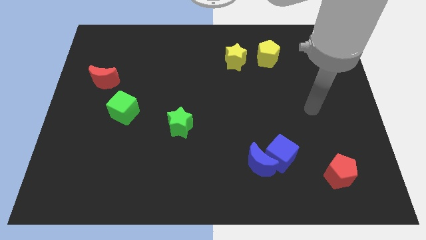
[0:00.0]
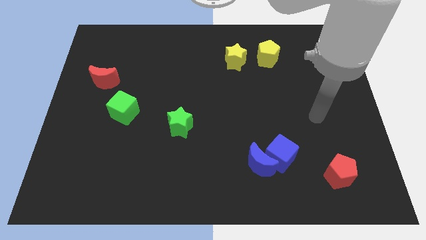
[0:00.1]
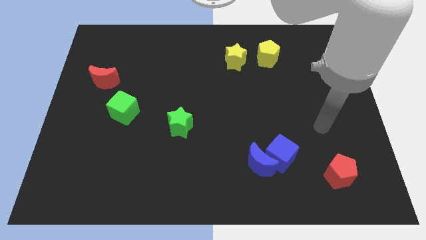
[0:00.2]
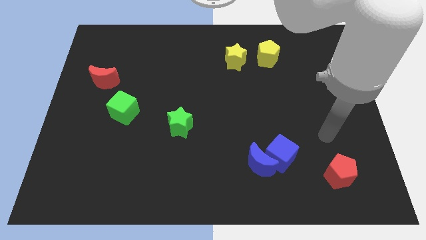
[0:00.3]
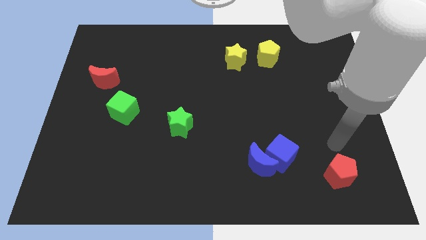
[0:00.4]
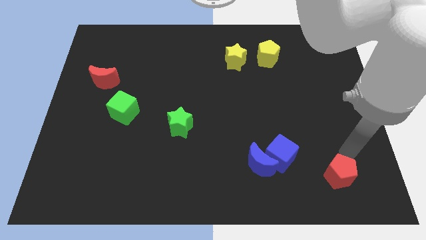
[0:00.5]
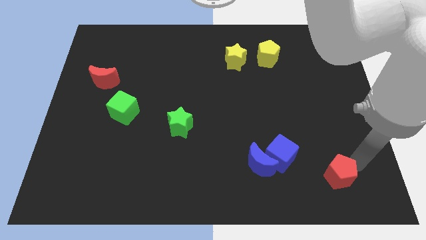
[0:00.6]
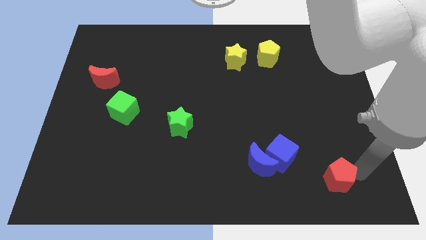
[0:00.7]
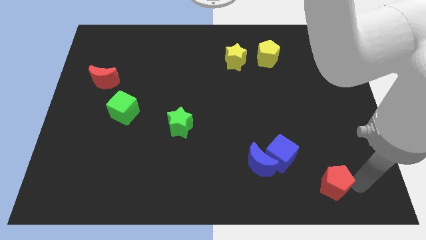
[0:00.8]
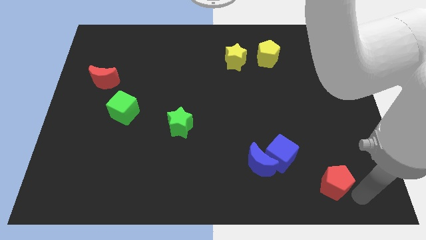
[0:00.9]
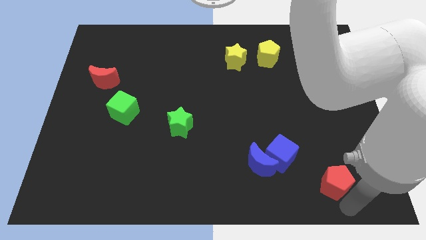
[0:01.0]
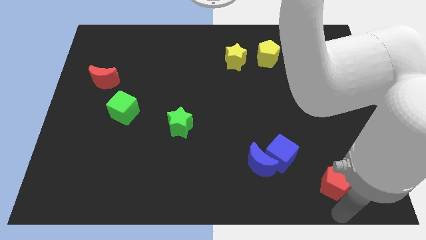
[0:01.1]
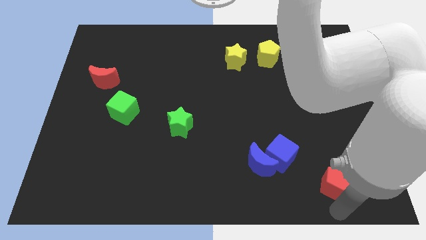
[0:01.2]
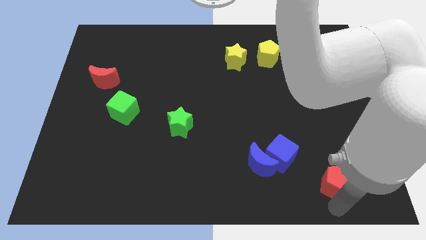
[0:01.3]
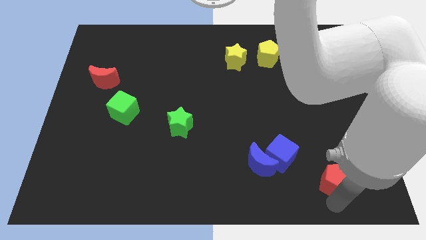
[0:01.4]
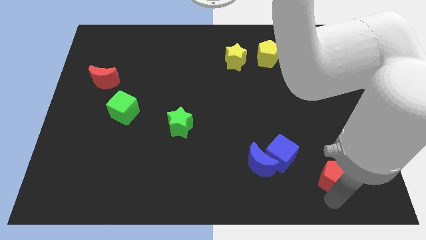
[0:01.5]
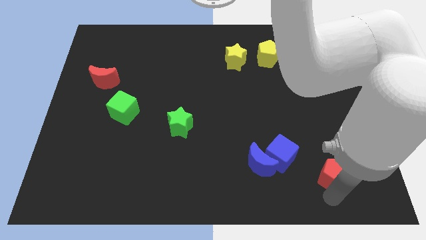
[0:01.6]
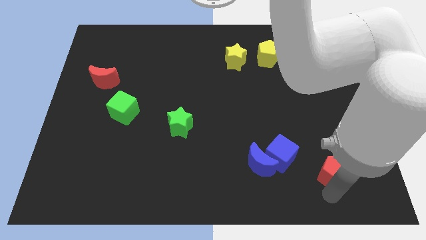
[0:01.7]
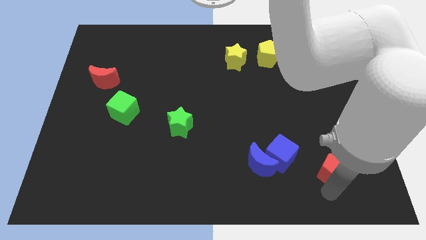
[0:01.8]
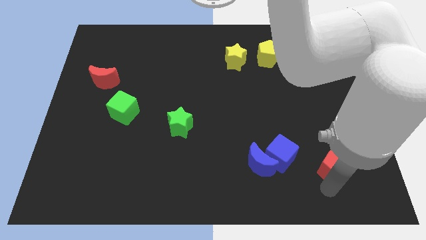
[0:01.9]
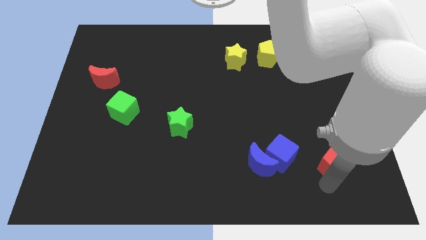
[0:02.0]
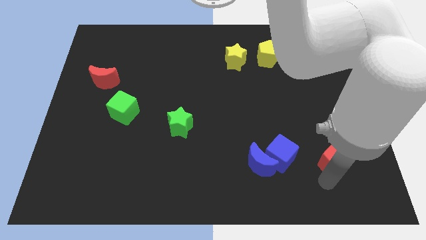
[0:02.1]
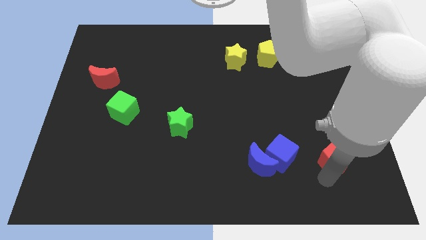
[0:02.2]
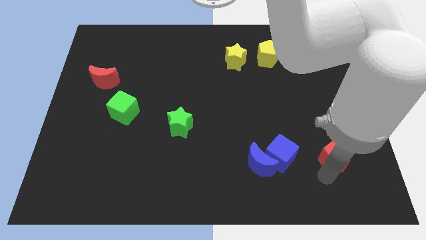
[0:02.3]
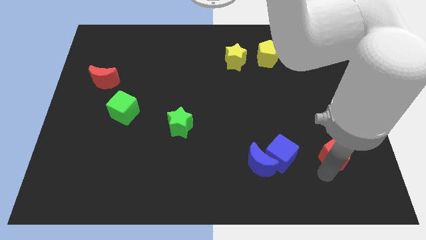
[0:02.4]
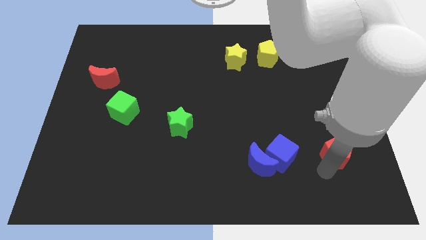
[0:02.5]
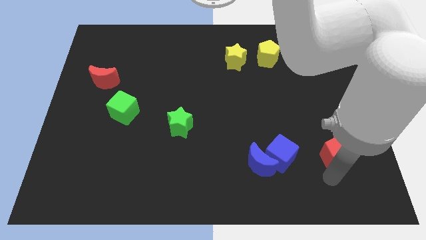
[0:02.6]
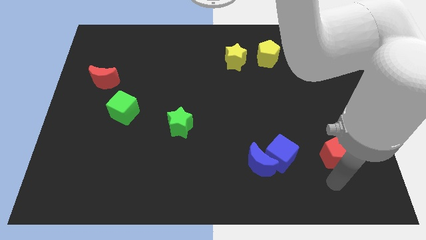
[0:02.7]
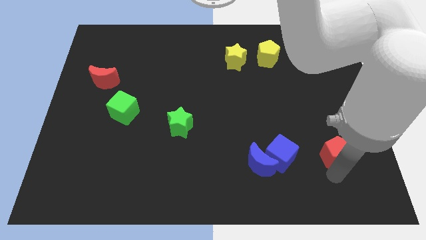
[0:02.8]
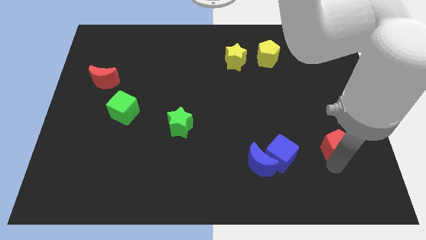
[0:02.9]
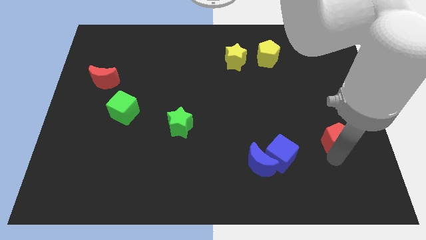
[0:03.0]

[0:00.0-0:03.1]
slightly move the red pentagon upwards

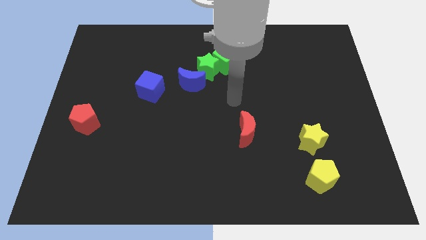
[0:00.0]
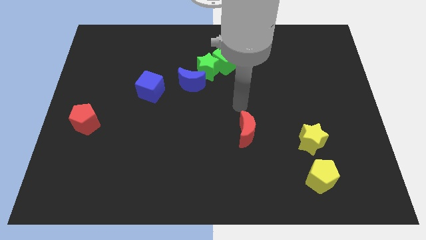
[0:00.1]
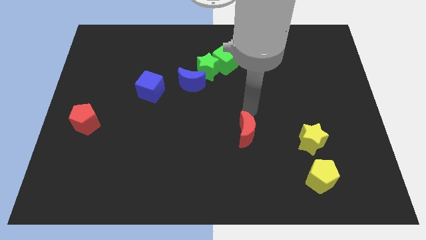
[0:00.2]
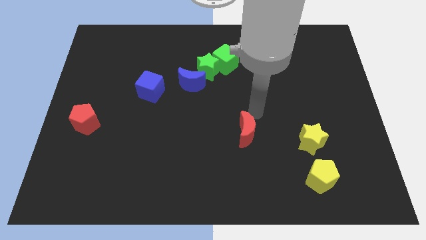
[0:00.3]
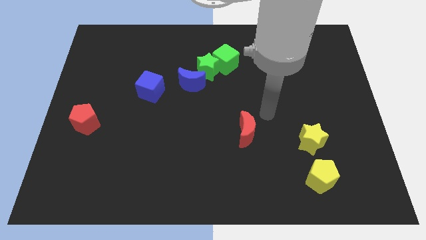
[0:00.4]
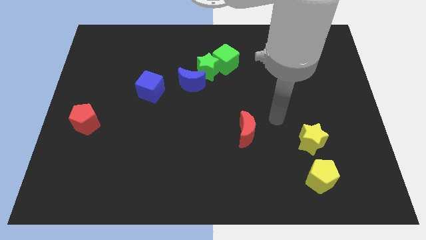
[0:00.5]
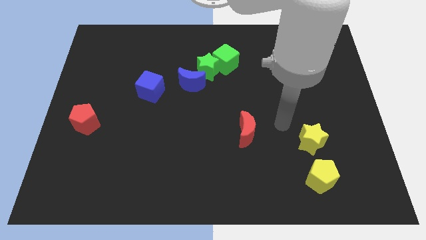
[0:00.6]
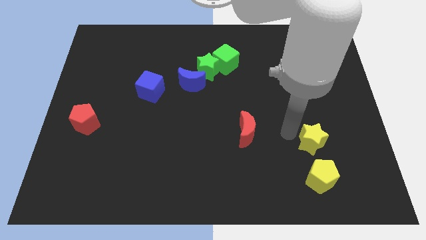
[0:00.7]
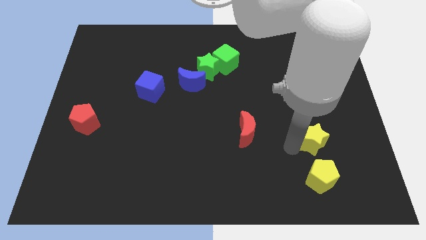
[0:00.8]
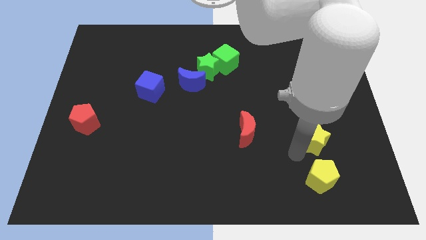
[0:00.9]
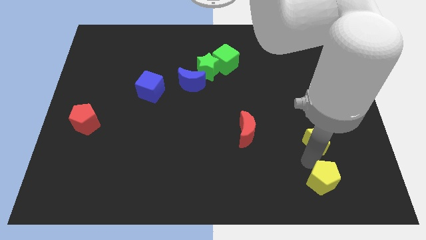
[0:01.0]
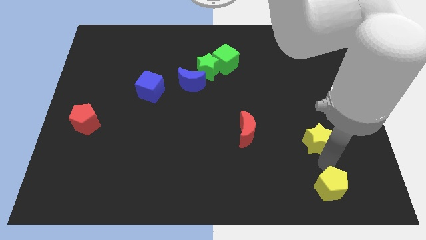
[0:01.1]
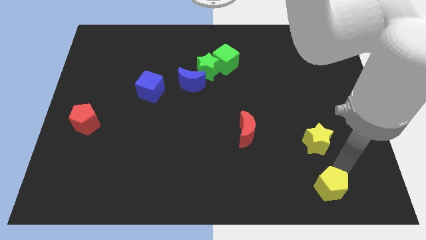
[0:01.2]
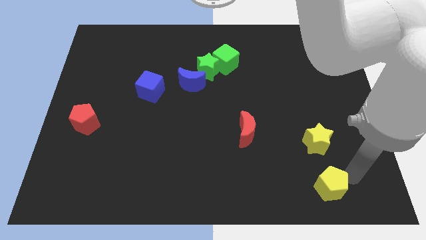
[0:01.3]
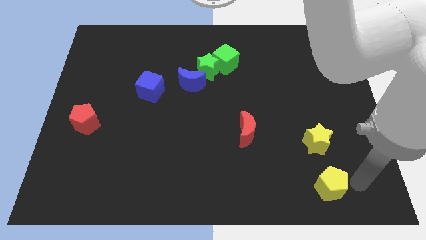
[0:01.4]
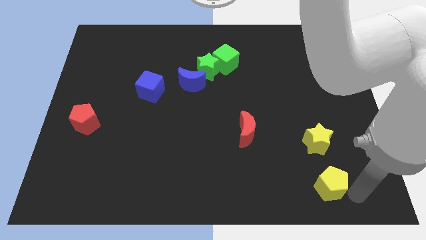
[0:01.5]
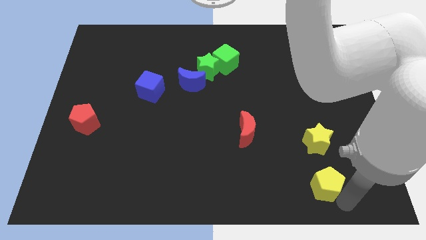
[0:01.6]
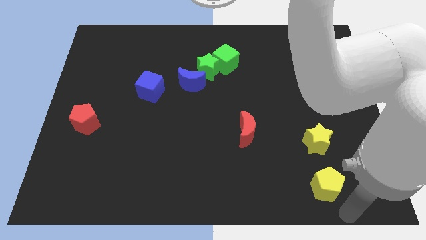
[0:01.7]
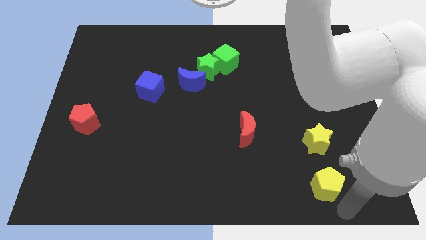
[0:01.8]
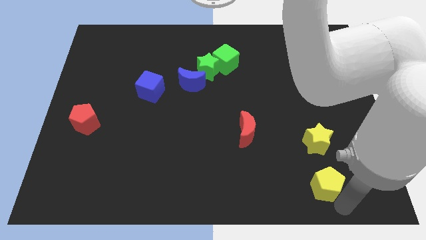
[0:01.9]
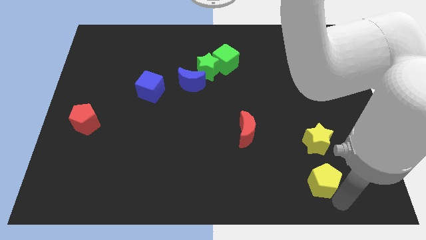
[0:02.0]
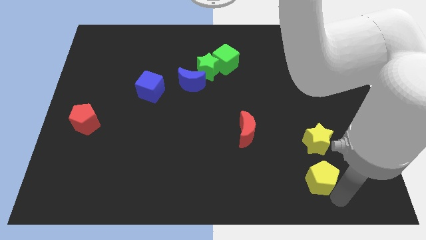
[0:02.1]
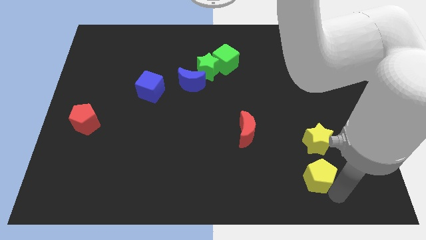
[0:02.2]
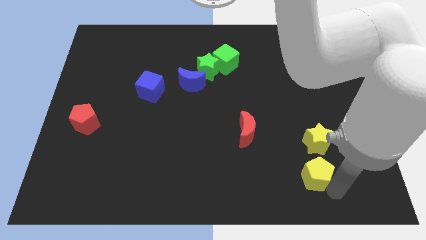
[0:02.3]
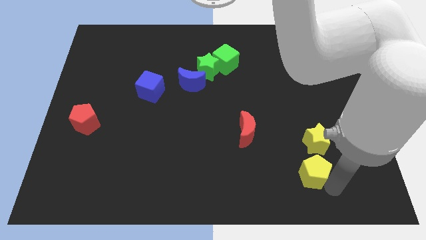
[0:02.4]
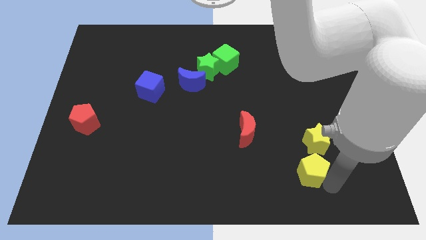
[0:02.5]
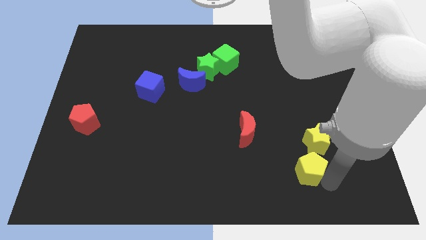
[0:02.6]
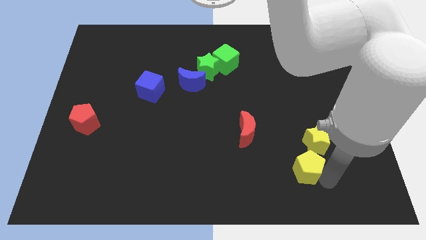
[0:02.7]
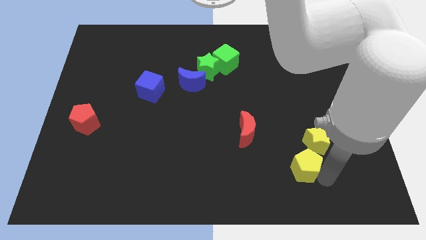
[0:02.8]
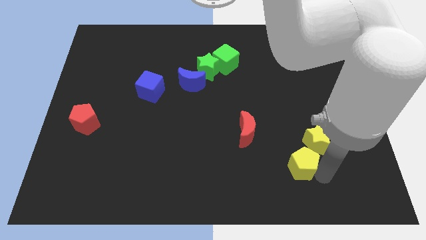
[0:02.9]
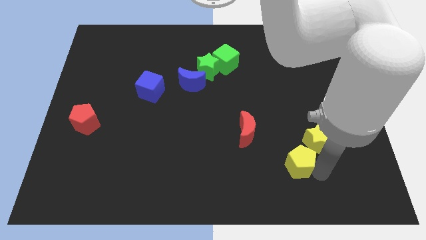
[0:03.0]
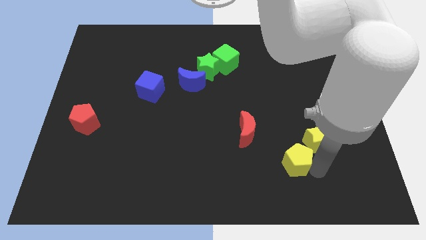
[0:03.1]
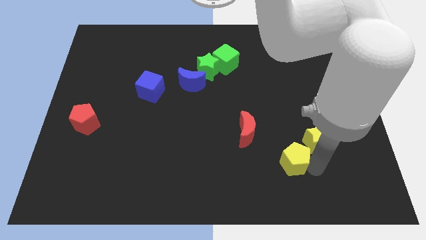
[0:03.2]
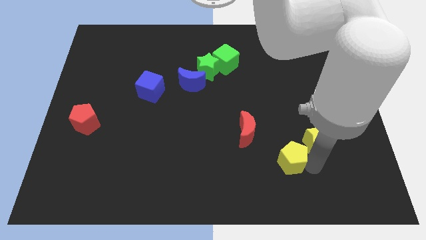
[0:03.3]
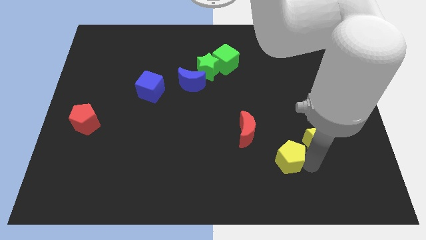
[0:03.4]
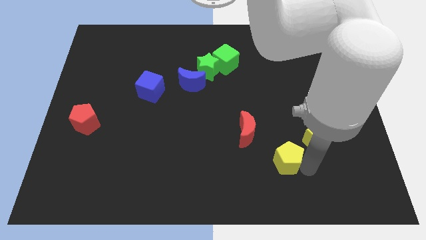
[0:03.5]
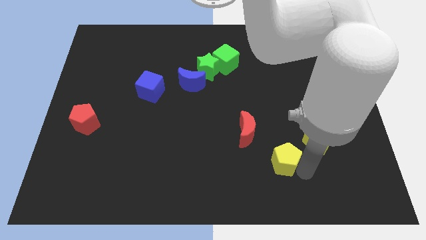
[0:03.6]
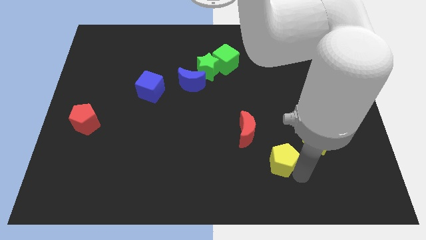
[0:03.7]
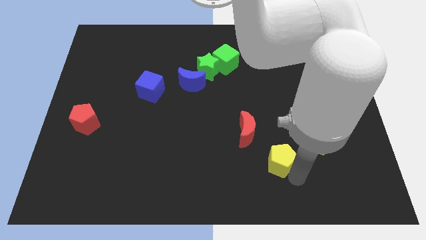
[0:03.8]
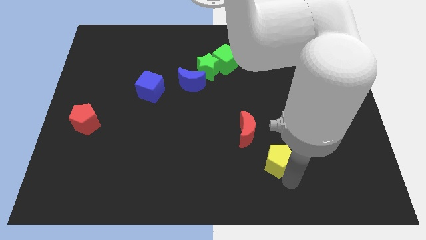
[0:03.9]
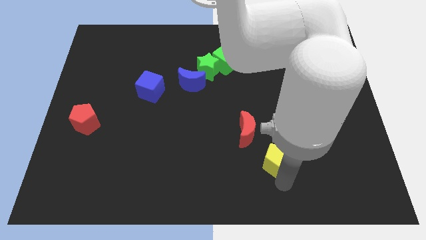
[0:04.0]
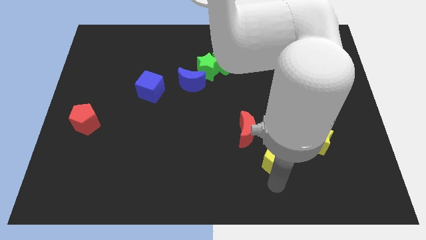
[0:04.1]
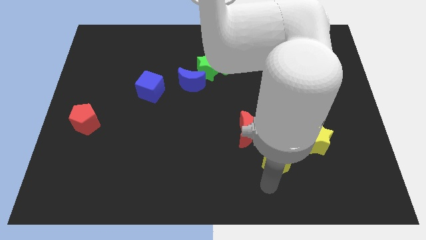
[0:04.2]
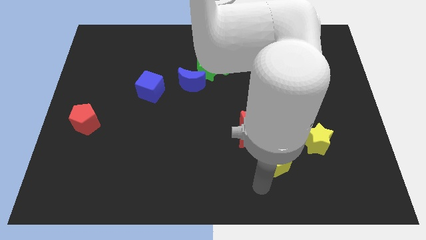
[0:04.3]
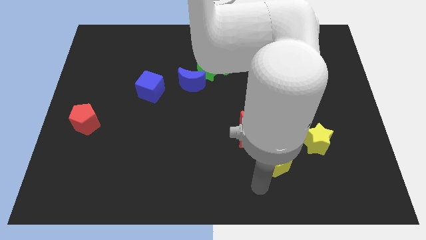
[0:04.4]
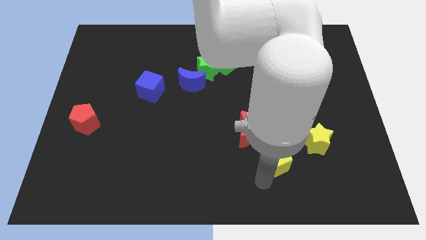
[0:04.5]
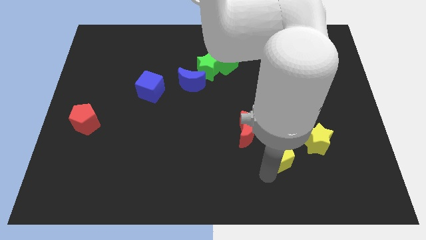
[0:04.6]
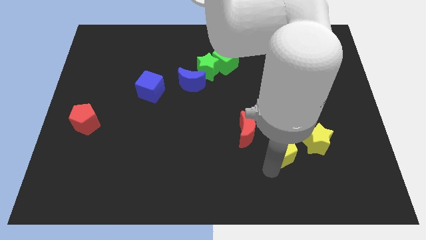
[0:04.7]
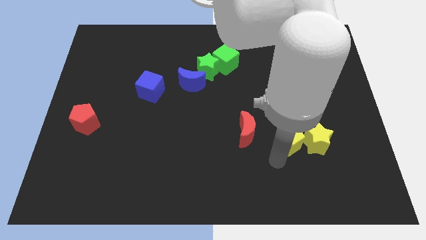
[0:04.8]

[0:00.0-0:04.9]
slide the yellow pentagon a bit upwards
